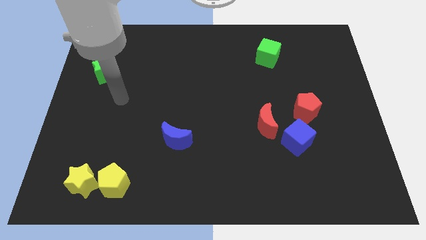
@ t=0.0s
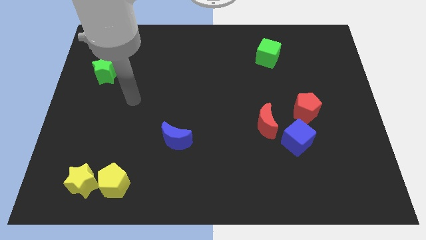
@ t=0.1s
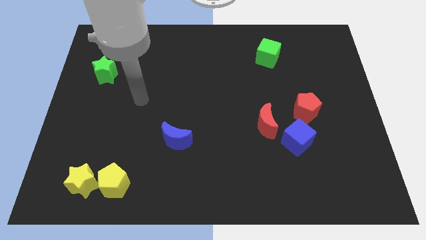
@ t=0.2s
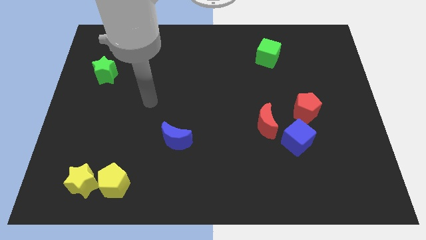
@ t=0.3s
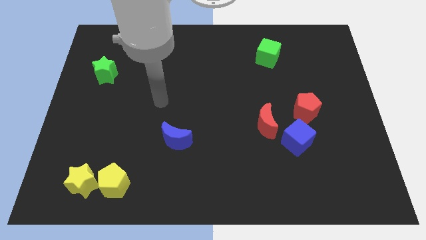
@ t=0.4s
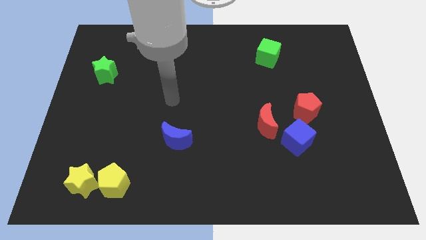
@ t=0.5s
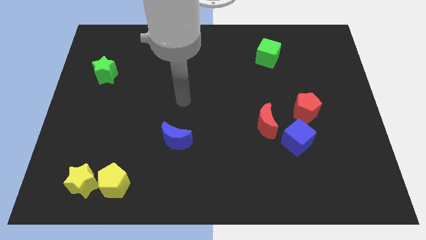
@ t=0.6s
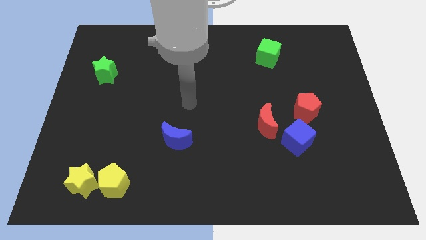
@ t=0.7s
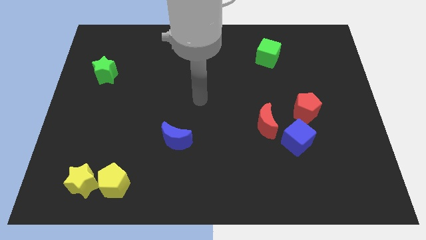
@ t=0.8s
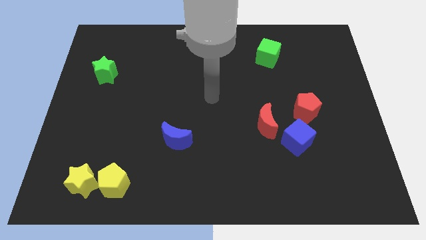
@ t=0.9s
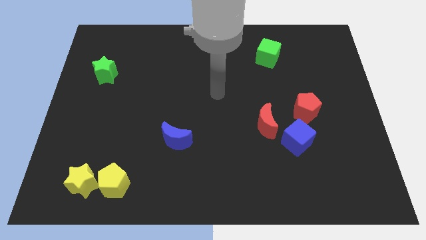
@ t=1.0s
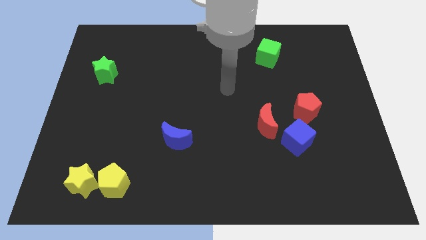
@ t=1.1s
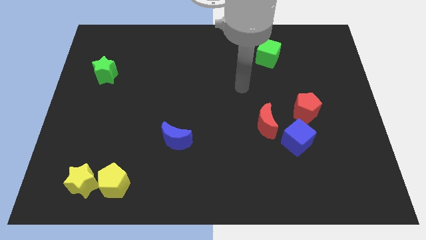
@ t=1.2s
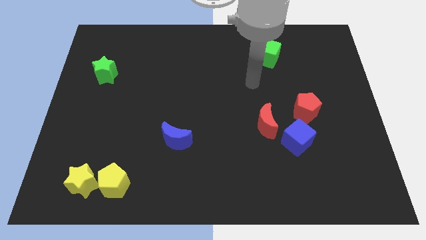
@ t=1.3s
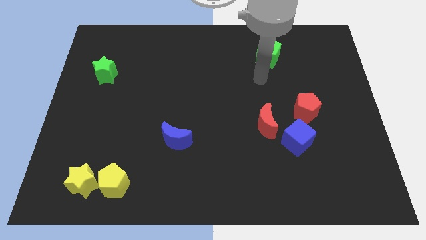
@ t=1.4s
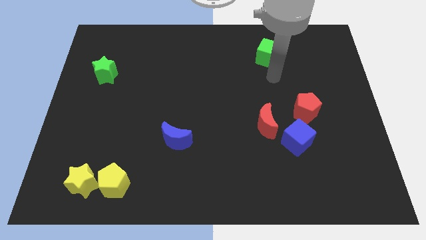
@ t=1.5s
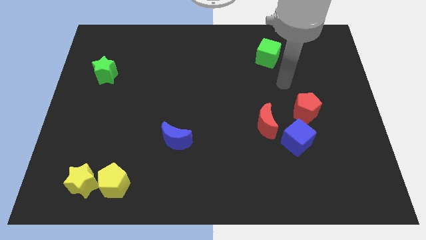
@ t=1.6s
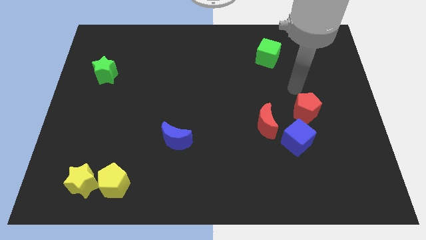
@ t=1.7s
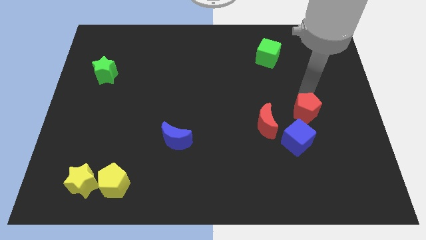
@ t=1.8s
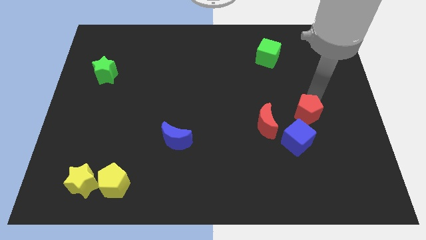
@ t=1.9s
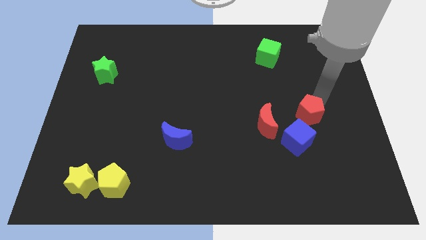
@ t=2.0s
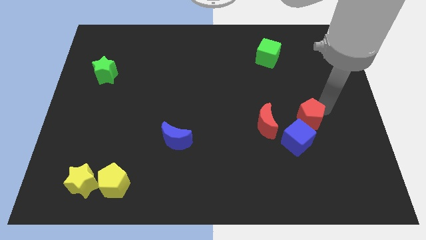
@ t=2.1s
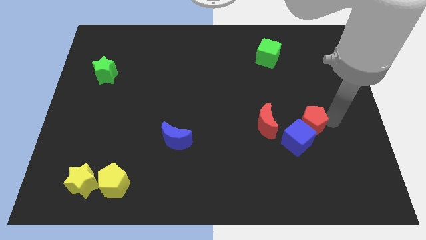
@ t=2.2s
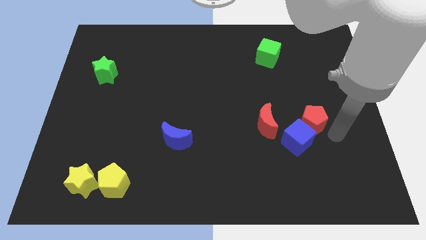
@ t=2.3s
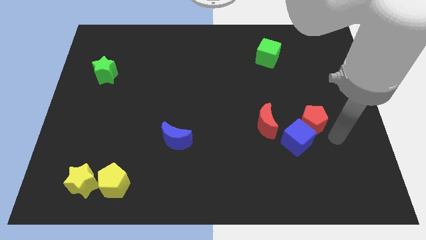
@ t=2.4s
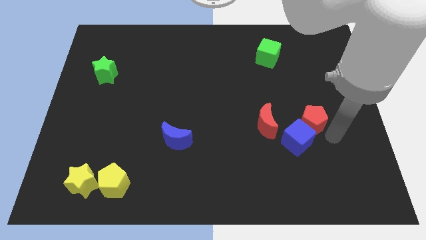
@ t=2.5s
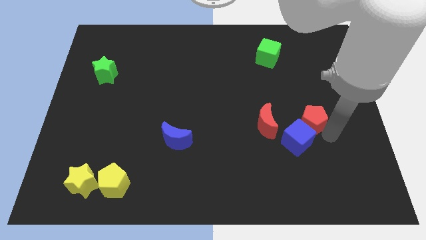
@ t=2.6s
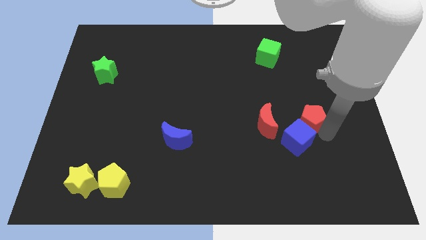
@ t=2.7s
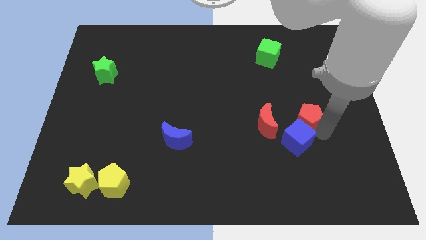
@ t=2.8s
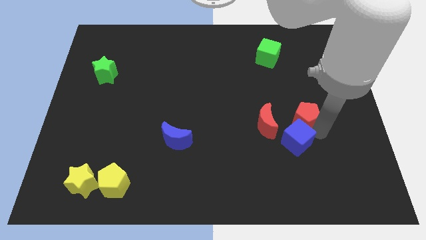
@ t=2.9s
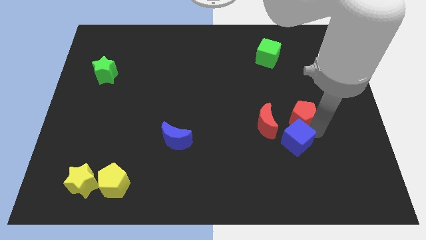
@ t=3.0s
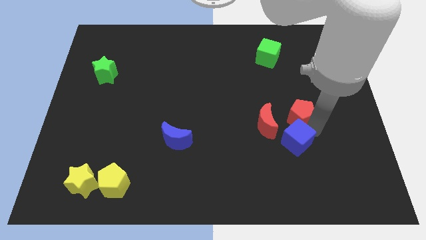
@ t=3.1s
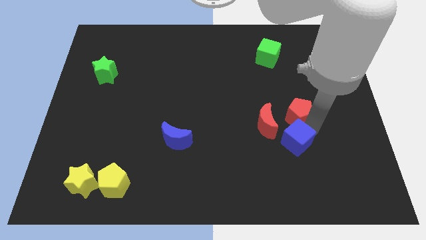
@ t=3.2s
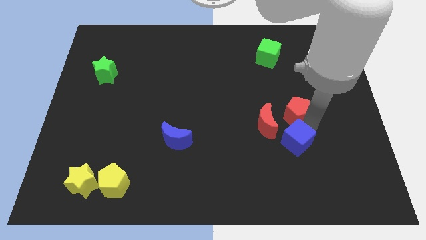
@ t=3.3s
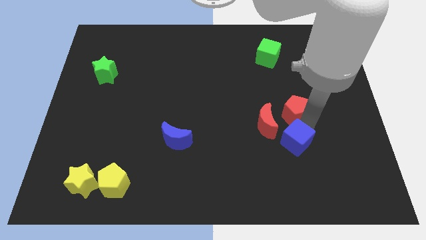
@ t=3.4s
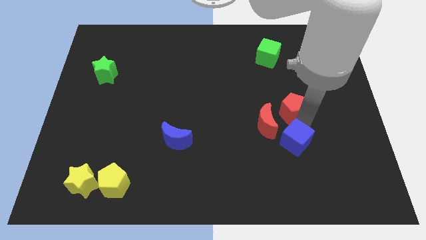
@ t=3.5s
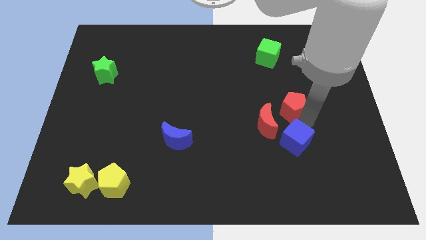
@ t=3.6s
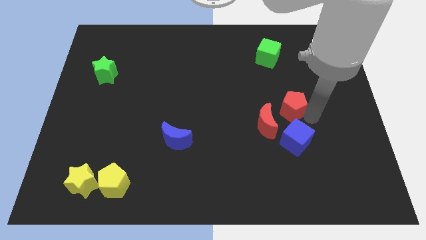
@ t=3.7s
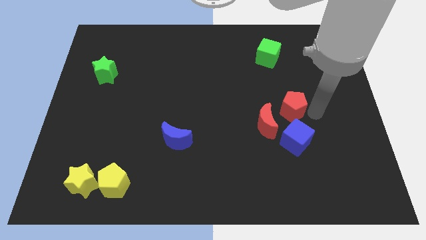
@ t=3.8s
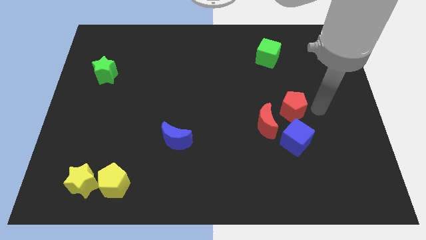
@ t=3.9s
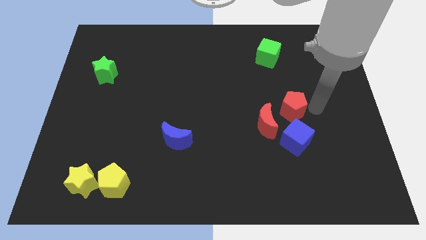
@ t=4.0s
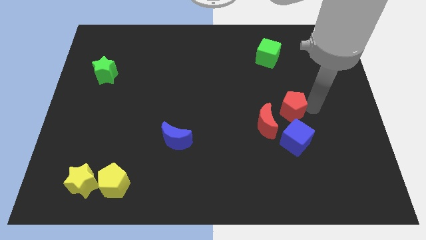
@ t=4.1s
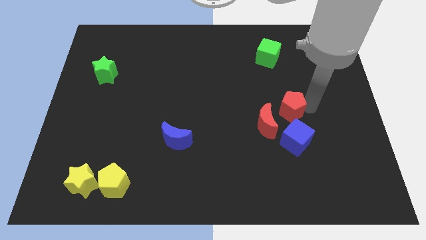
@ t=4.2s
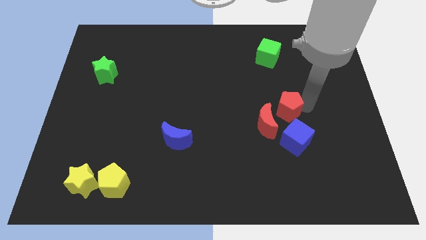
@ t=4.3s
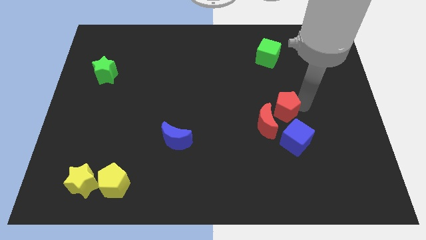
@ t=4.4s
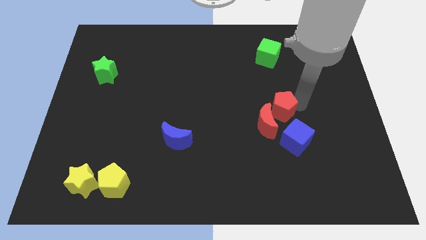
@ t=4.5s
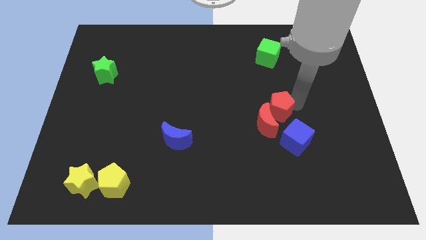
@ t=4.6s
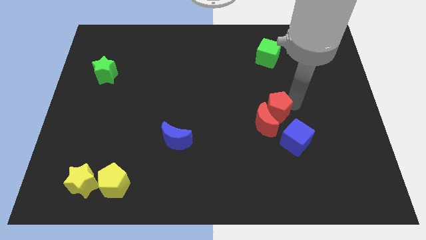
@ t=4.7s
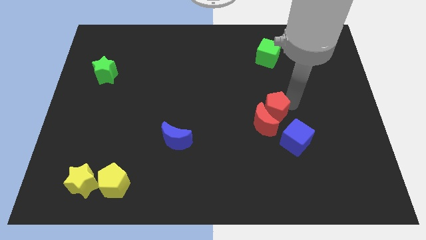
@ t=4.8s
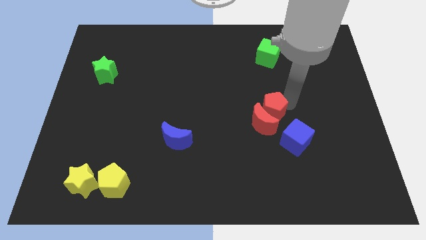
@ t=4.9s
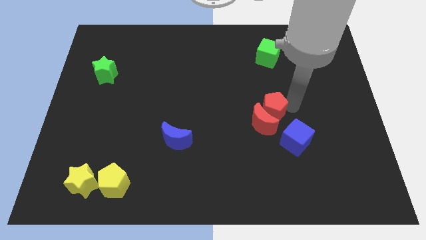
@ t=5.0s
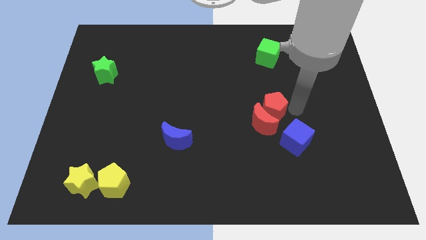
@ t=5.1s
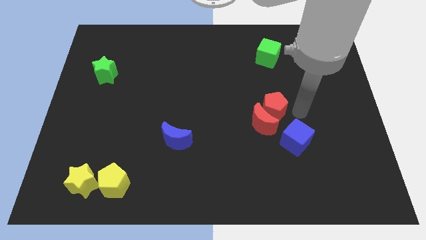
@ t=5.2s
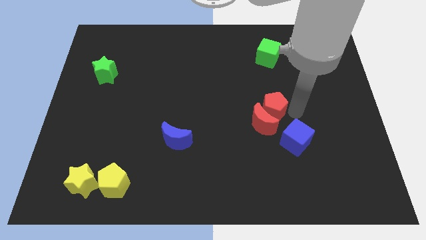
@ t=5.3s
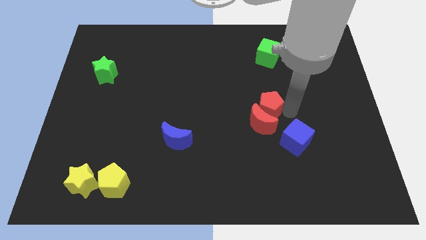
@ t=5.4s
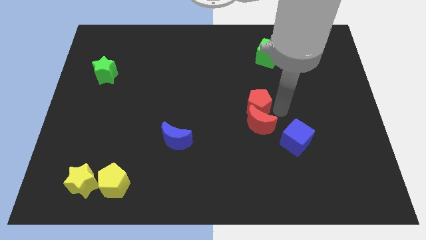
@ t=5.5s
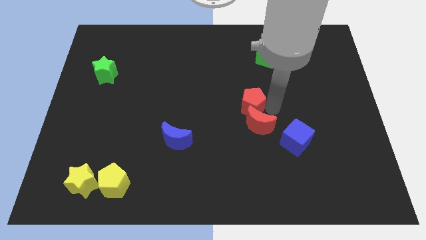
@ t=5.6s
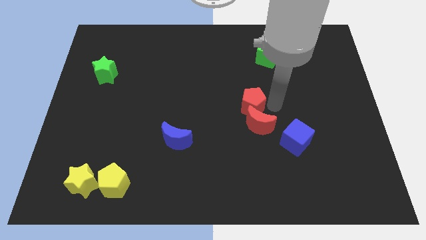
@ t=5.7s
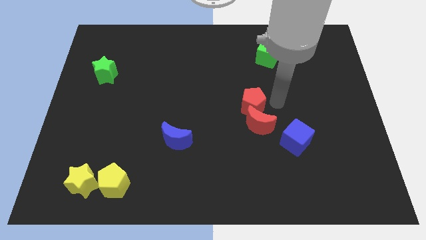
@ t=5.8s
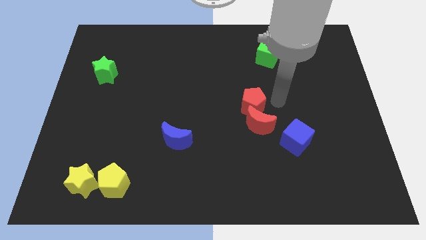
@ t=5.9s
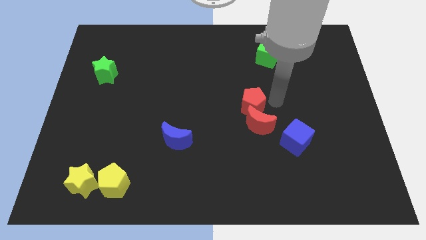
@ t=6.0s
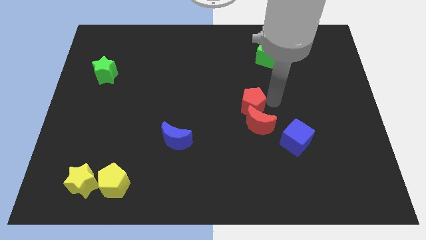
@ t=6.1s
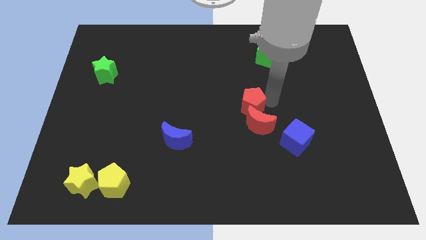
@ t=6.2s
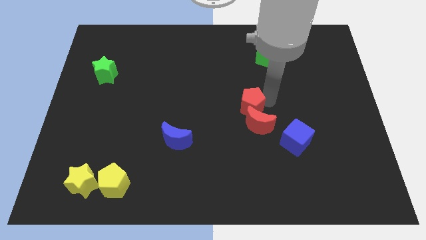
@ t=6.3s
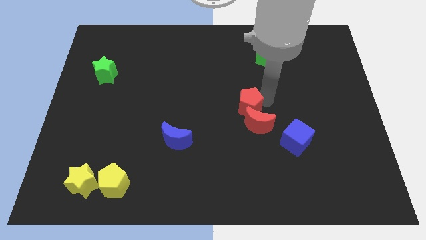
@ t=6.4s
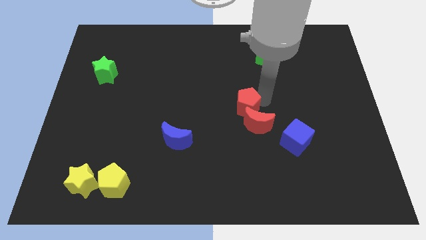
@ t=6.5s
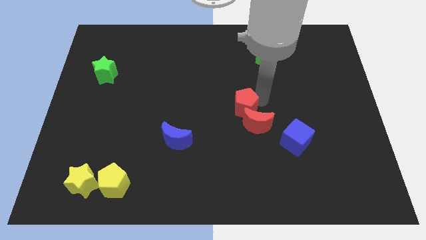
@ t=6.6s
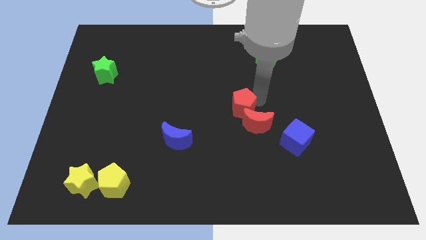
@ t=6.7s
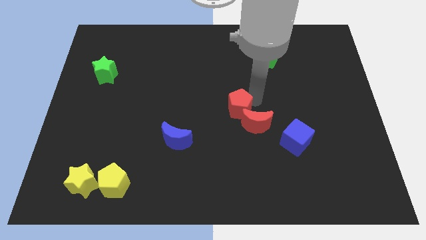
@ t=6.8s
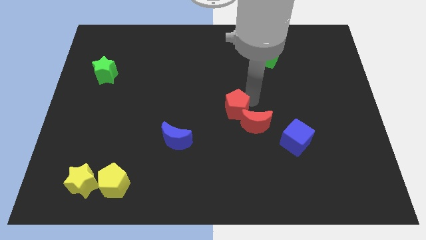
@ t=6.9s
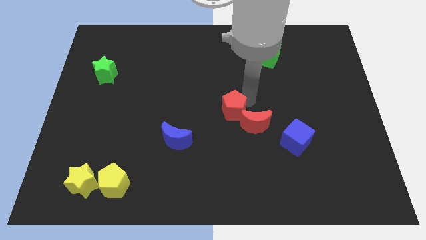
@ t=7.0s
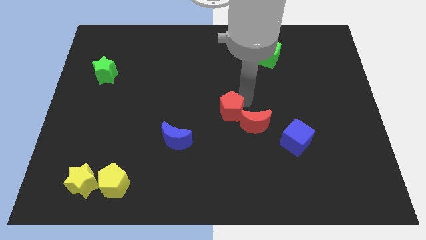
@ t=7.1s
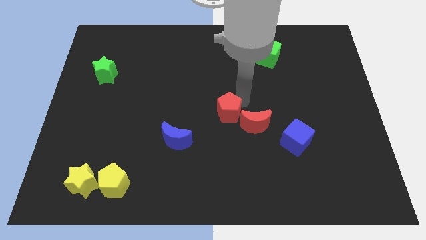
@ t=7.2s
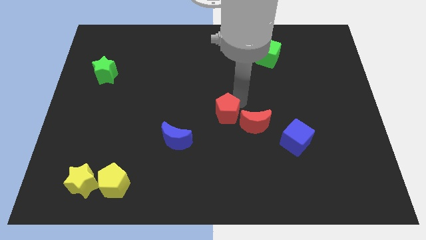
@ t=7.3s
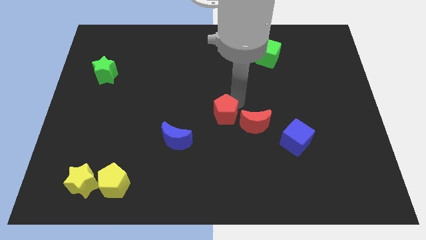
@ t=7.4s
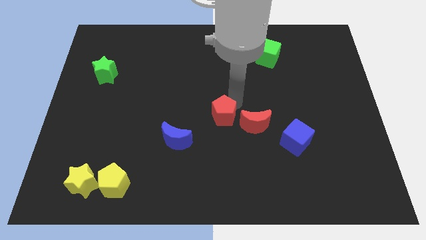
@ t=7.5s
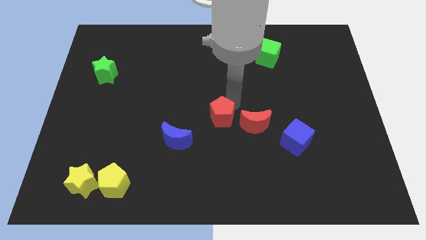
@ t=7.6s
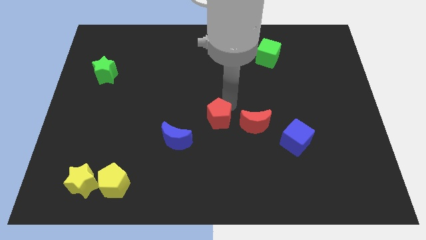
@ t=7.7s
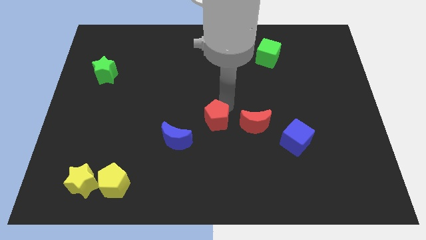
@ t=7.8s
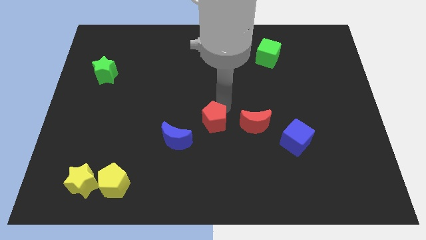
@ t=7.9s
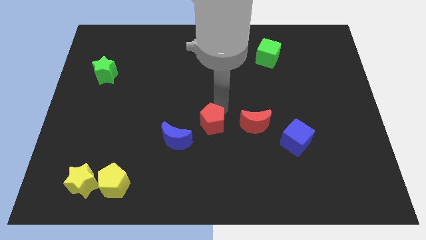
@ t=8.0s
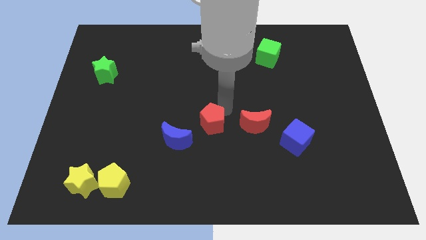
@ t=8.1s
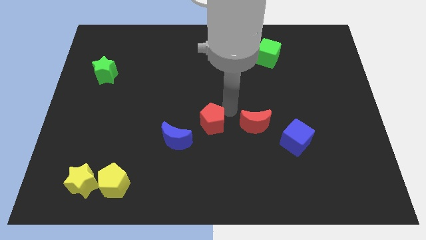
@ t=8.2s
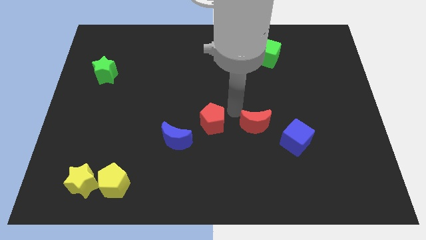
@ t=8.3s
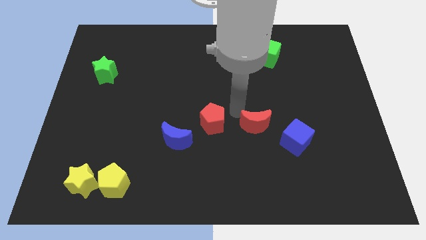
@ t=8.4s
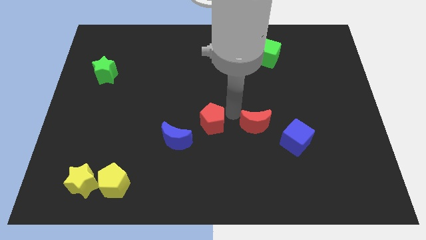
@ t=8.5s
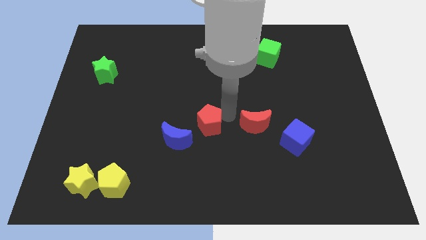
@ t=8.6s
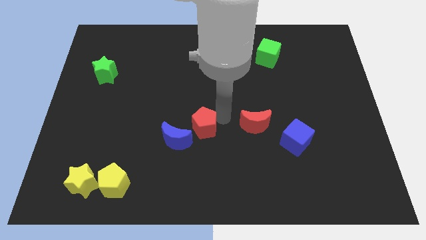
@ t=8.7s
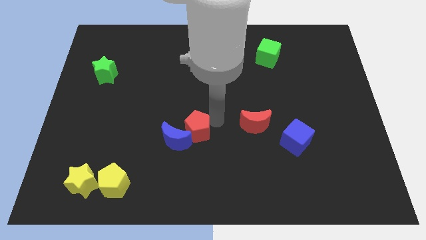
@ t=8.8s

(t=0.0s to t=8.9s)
put the red pentagon to the blue moon
